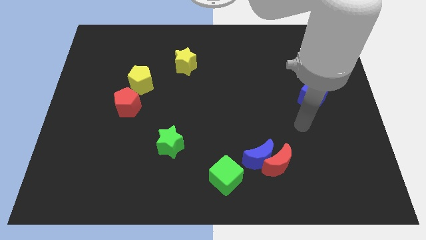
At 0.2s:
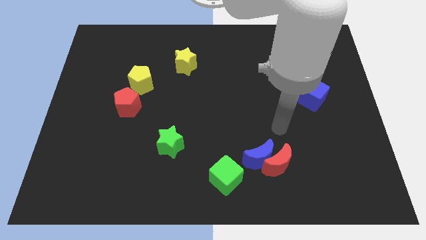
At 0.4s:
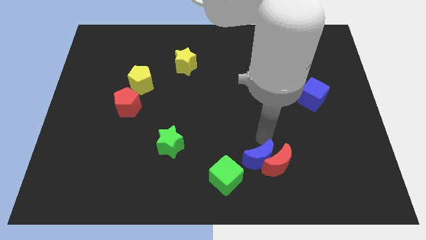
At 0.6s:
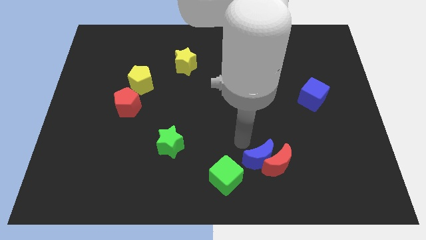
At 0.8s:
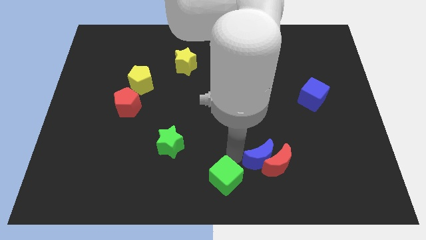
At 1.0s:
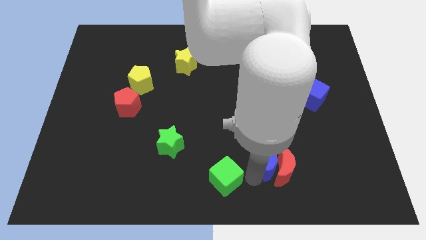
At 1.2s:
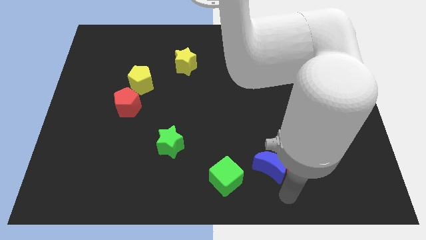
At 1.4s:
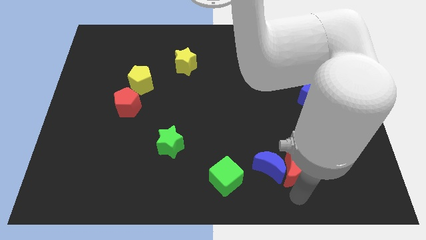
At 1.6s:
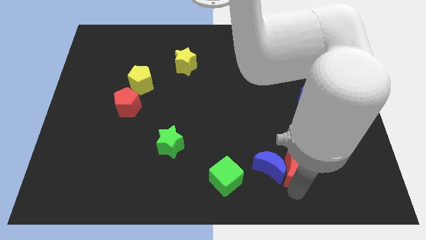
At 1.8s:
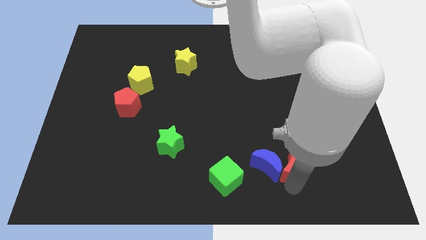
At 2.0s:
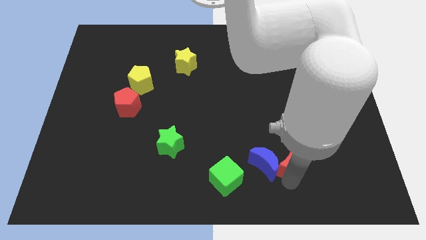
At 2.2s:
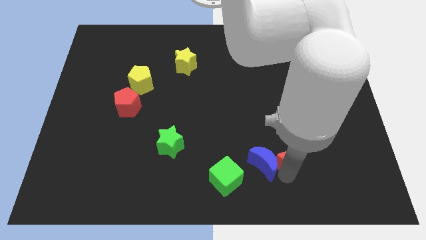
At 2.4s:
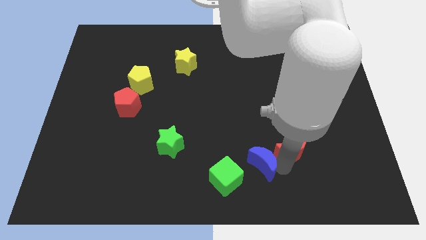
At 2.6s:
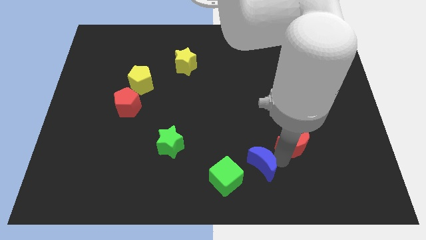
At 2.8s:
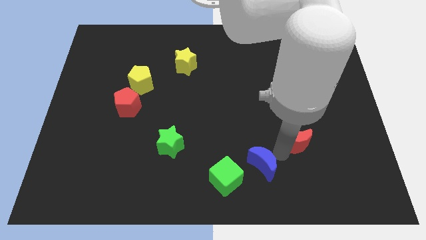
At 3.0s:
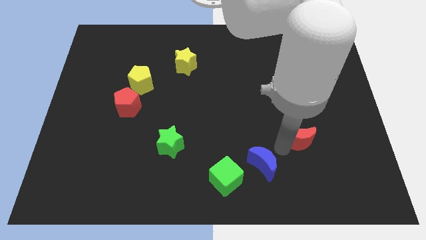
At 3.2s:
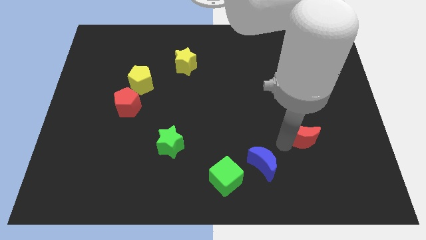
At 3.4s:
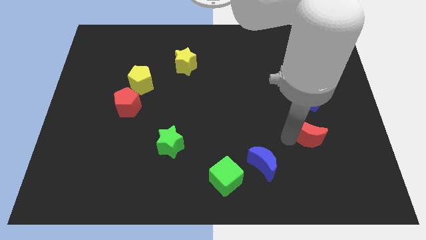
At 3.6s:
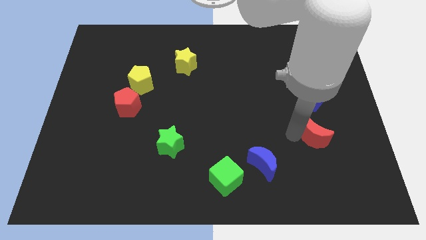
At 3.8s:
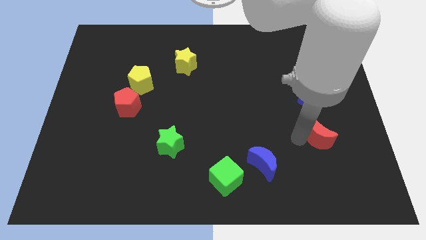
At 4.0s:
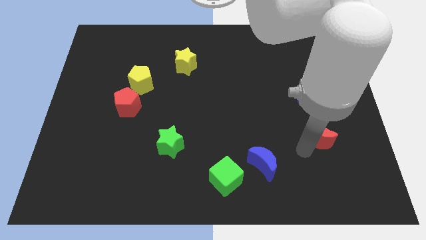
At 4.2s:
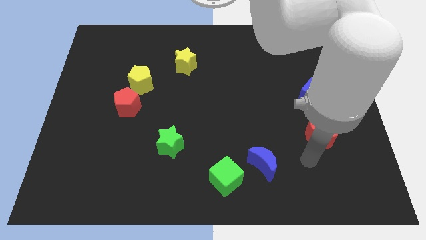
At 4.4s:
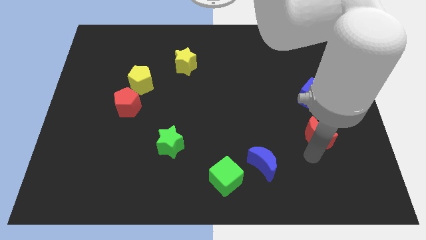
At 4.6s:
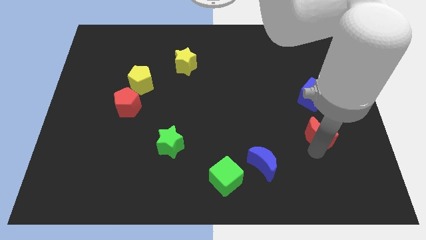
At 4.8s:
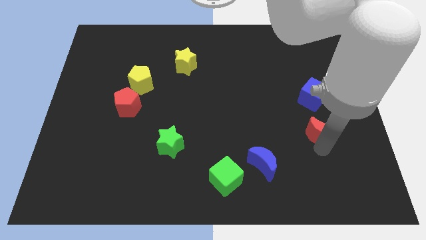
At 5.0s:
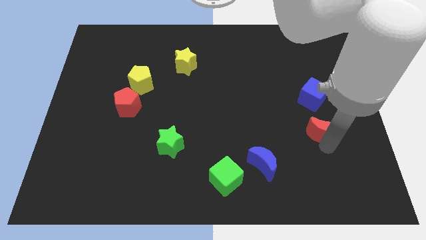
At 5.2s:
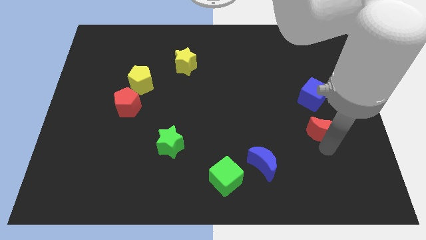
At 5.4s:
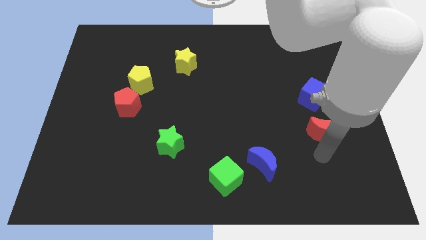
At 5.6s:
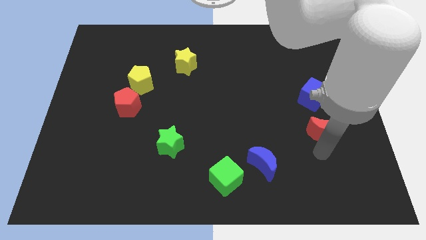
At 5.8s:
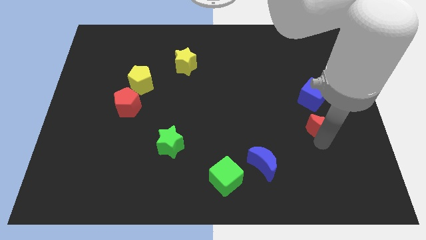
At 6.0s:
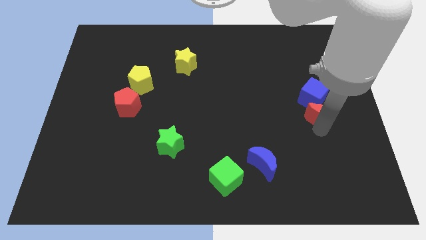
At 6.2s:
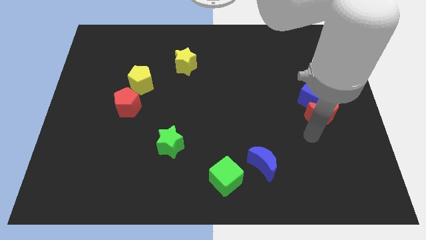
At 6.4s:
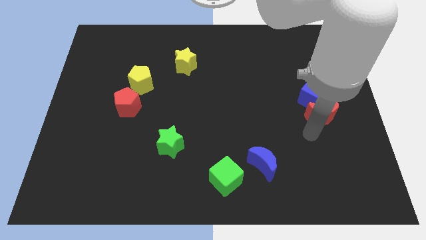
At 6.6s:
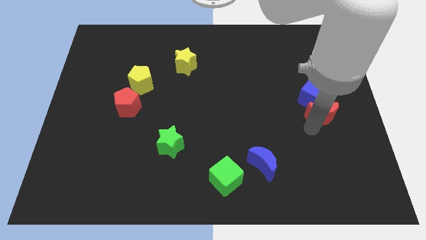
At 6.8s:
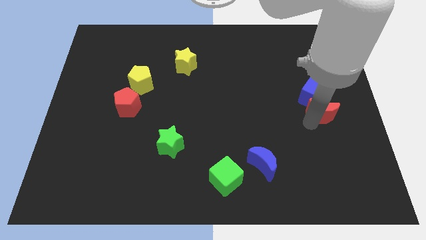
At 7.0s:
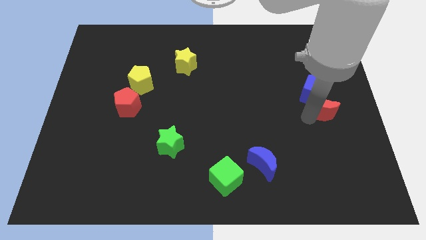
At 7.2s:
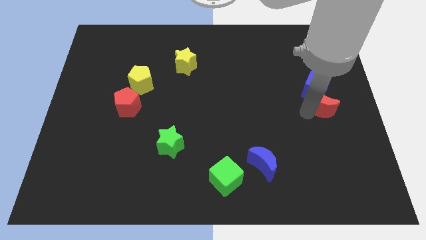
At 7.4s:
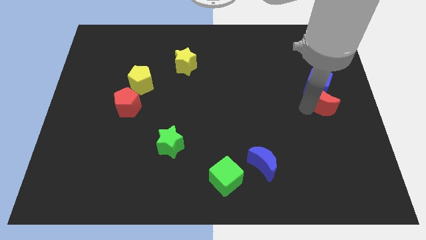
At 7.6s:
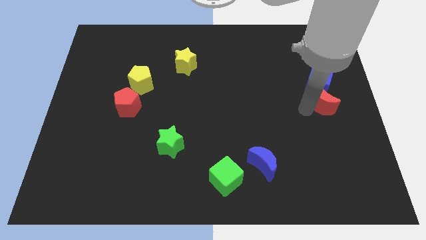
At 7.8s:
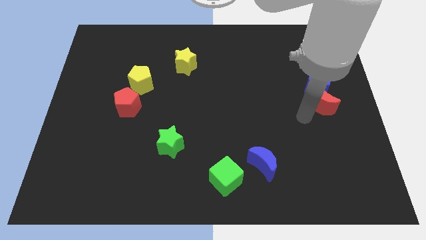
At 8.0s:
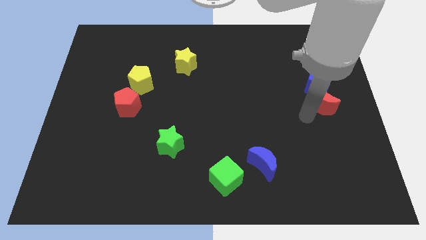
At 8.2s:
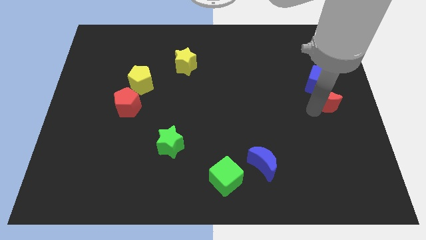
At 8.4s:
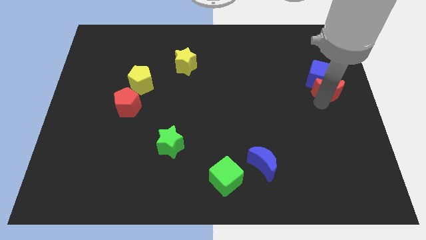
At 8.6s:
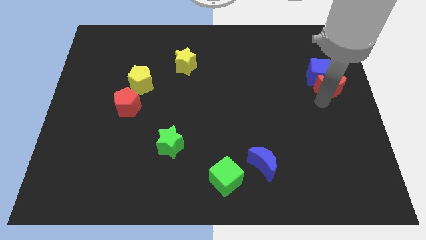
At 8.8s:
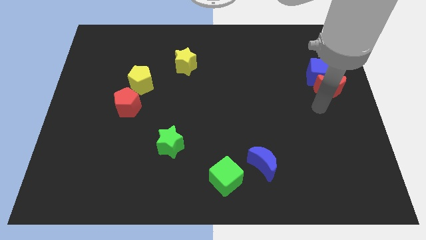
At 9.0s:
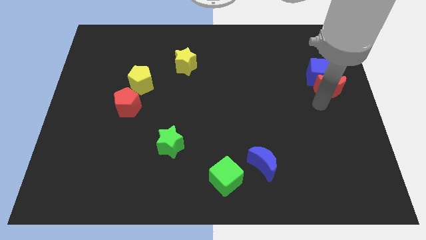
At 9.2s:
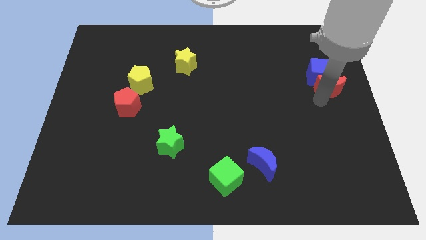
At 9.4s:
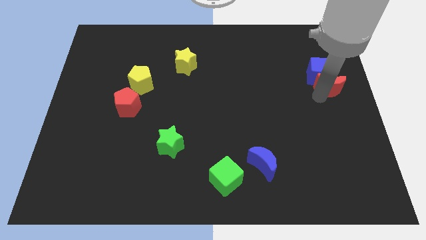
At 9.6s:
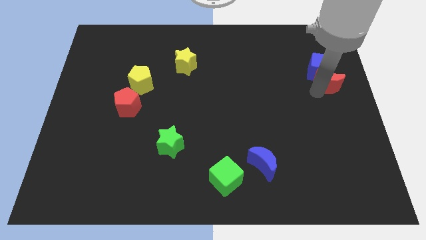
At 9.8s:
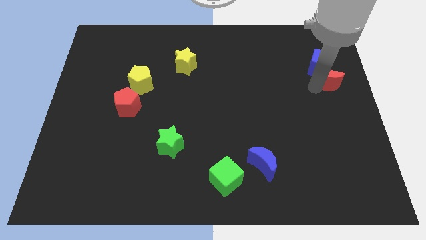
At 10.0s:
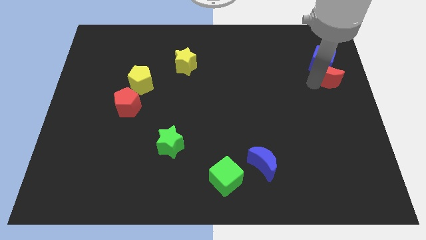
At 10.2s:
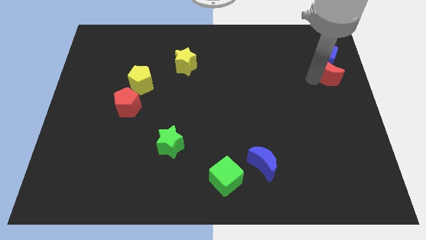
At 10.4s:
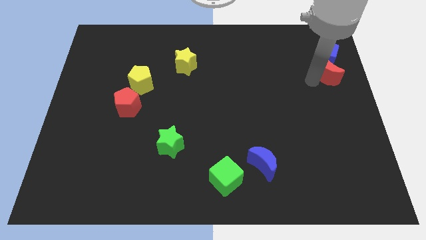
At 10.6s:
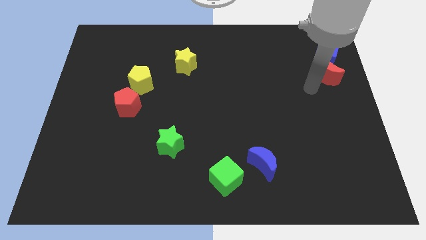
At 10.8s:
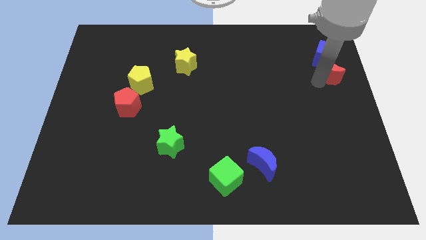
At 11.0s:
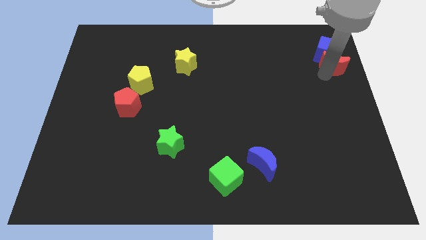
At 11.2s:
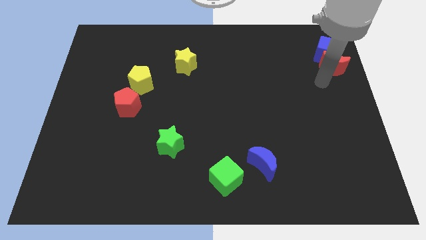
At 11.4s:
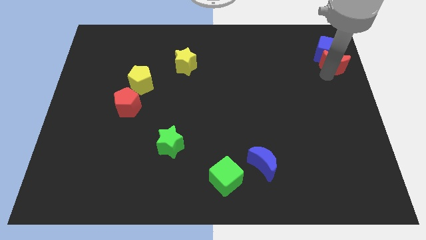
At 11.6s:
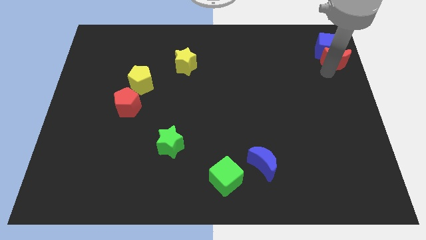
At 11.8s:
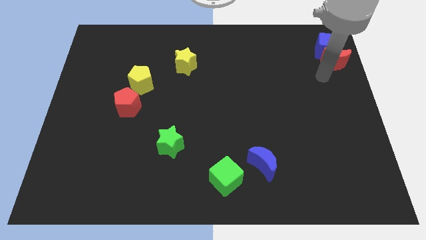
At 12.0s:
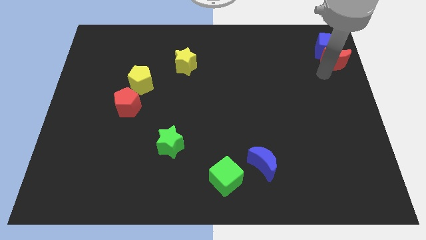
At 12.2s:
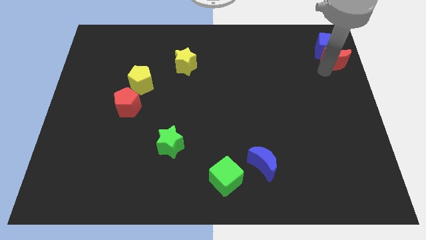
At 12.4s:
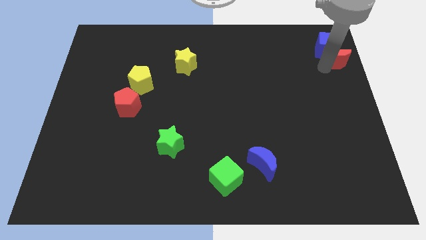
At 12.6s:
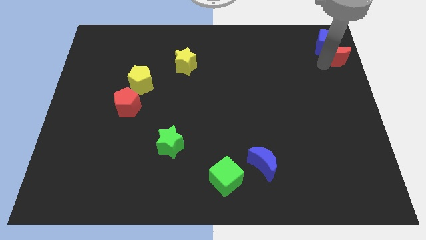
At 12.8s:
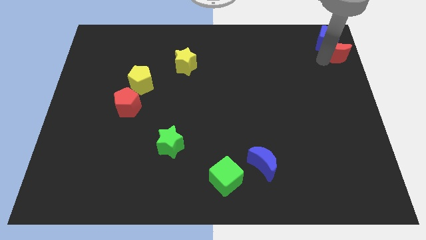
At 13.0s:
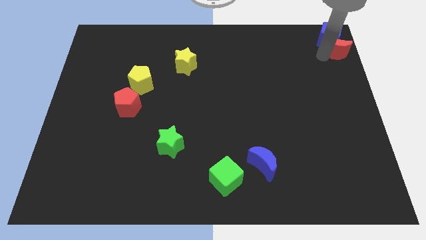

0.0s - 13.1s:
move the red moon to the top right corner

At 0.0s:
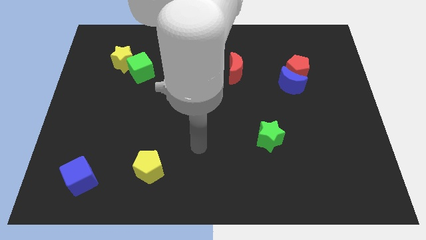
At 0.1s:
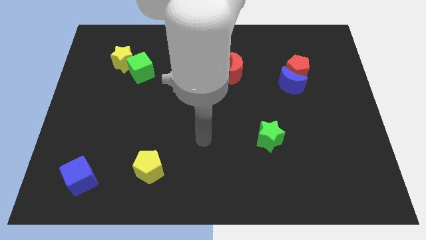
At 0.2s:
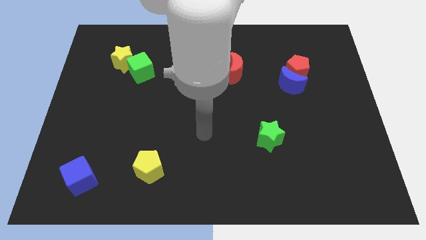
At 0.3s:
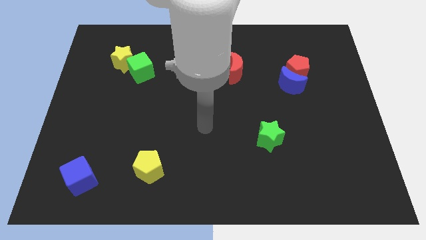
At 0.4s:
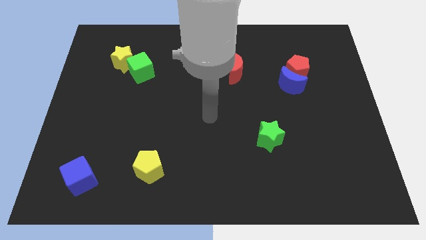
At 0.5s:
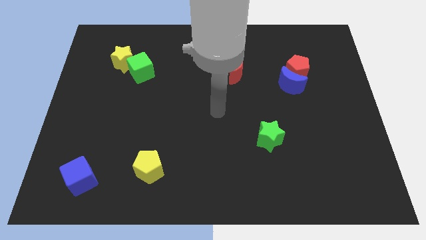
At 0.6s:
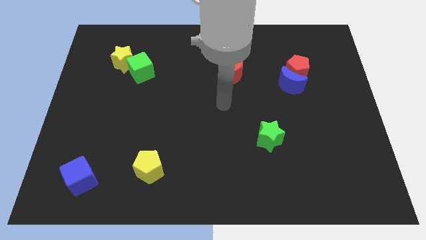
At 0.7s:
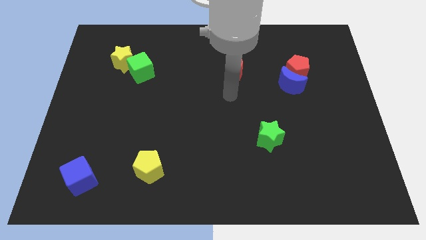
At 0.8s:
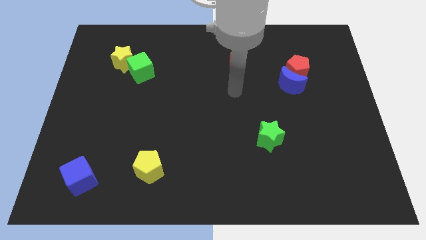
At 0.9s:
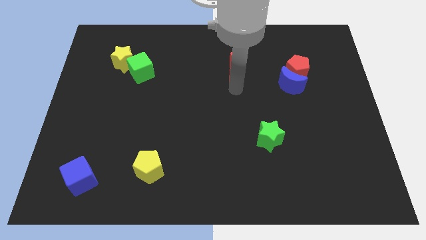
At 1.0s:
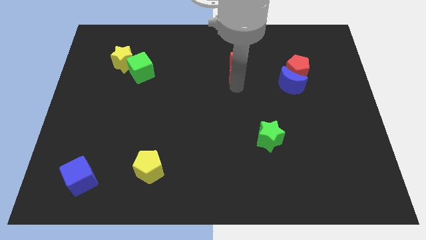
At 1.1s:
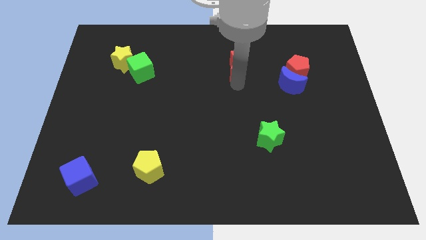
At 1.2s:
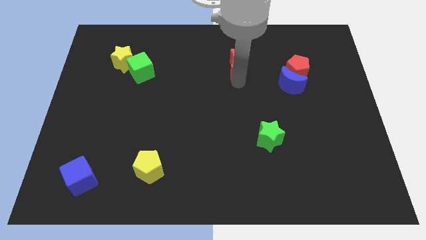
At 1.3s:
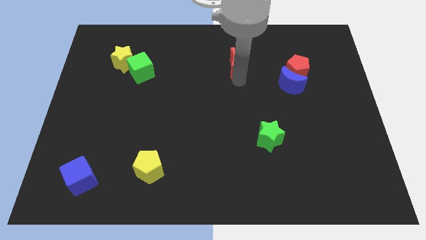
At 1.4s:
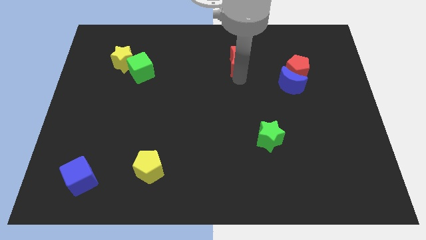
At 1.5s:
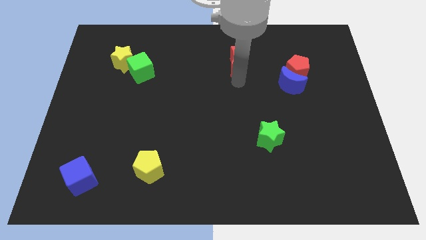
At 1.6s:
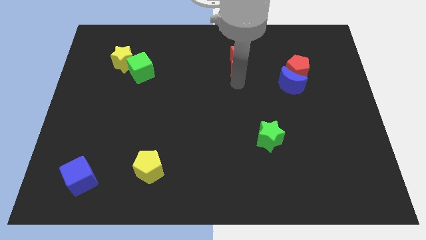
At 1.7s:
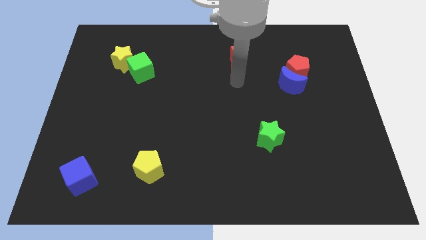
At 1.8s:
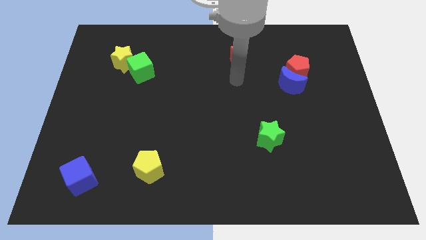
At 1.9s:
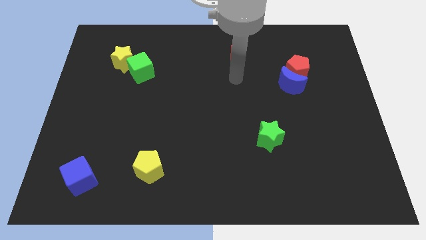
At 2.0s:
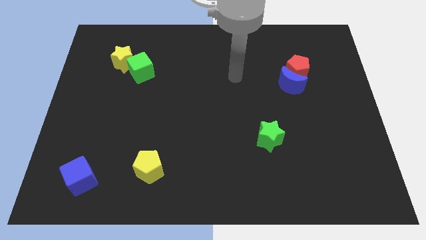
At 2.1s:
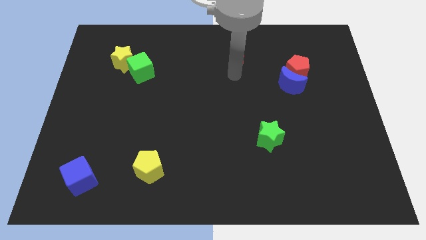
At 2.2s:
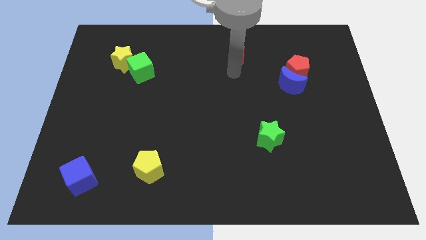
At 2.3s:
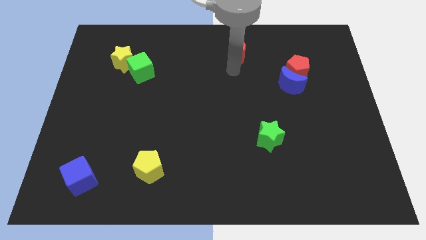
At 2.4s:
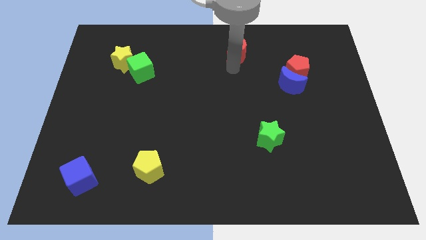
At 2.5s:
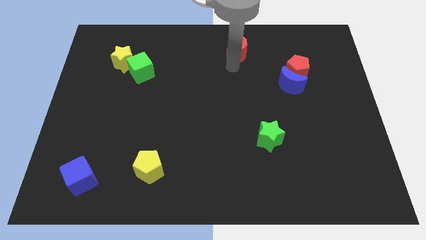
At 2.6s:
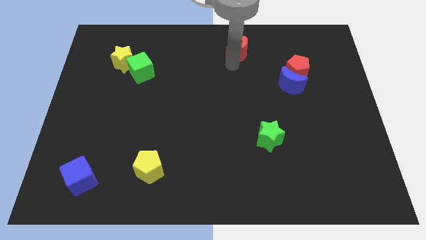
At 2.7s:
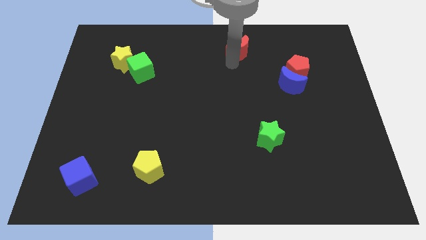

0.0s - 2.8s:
put the red moon to the top
